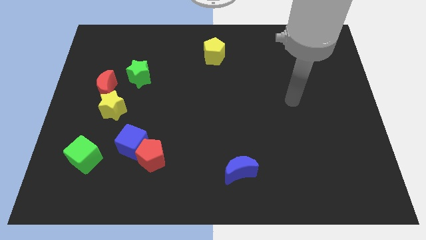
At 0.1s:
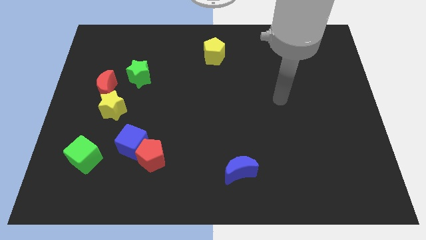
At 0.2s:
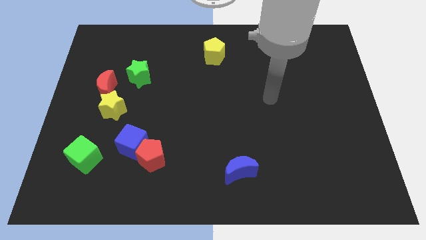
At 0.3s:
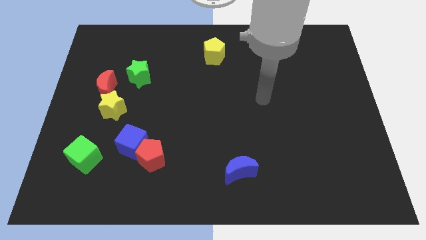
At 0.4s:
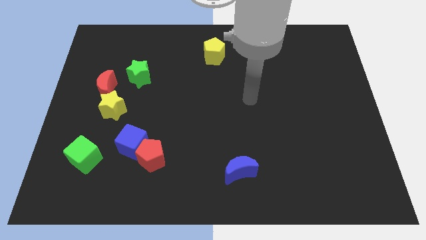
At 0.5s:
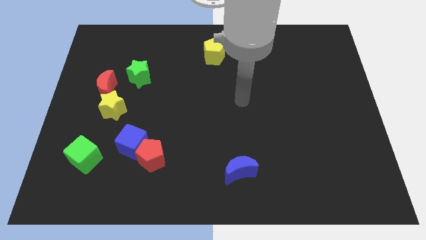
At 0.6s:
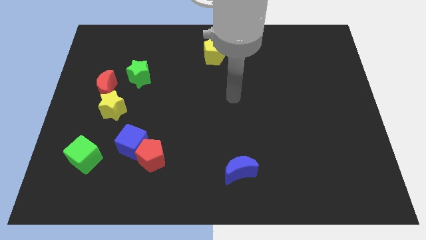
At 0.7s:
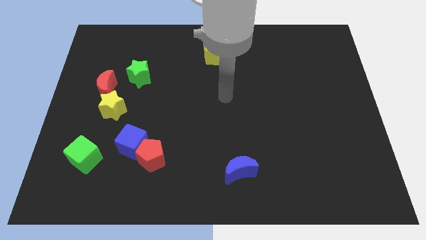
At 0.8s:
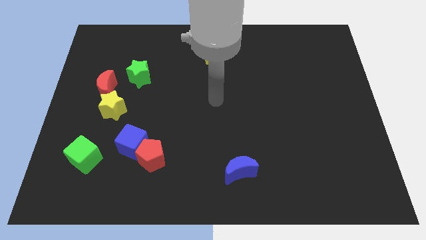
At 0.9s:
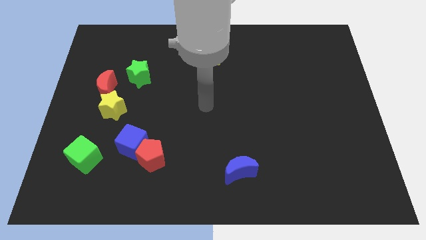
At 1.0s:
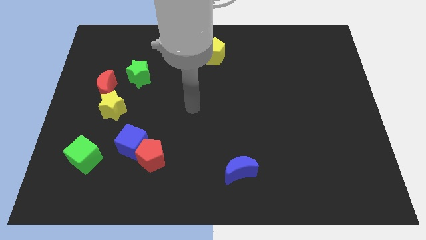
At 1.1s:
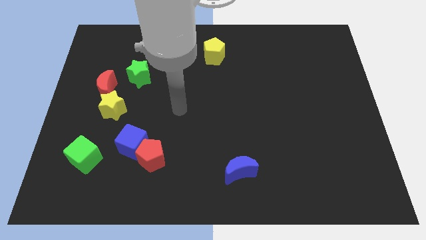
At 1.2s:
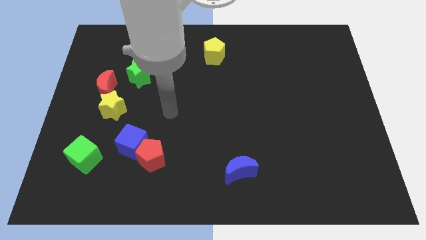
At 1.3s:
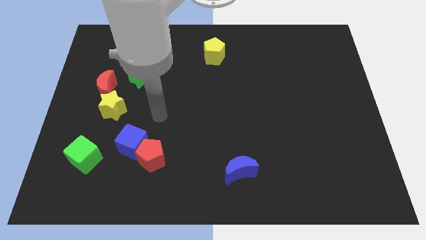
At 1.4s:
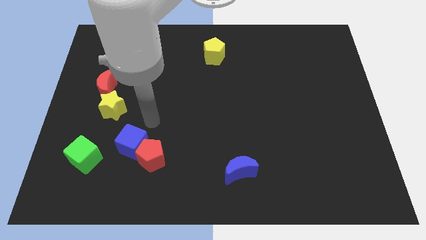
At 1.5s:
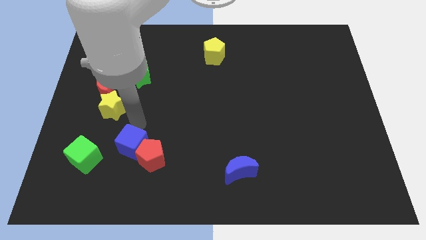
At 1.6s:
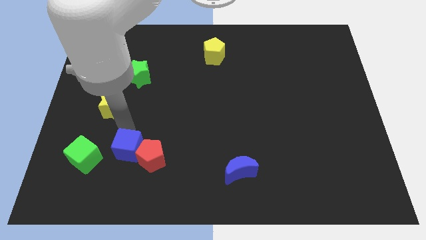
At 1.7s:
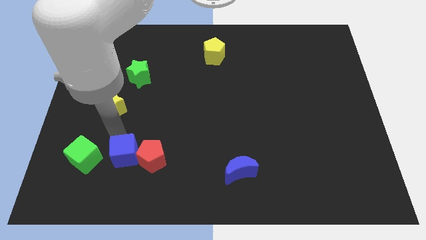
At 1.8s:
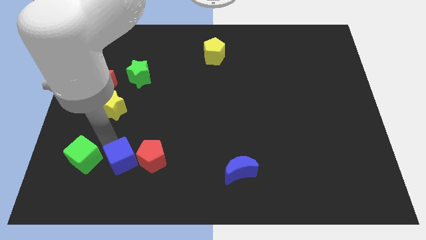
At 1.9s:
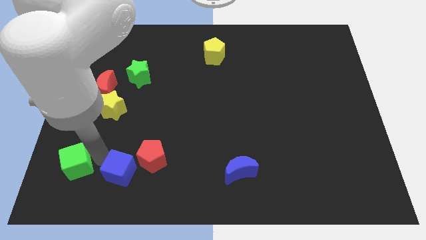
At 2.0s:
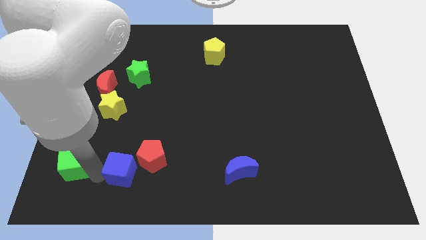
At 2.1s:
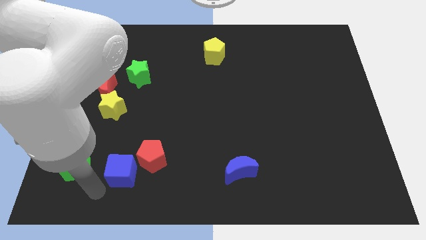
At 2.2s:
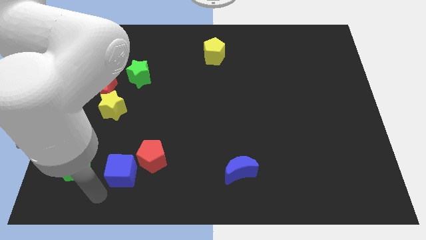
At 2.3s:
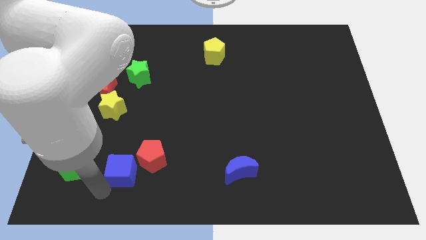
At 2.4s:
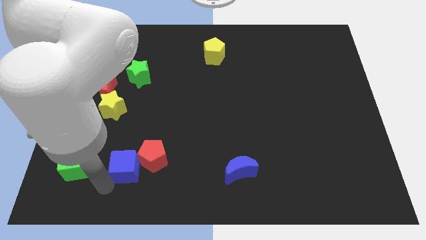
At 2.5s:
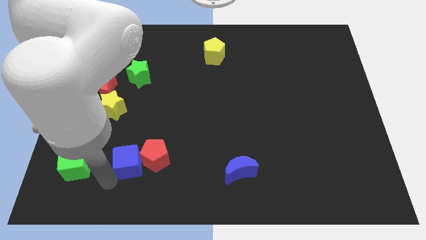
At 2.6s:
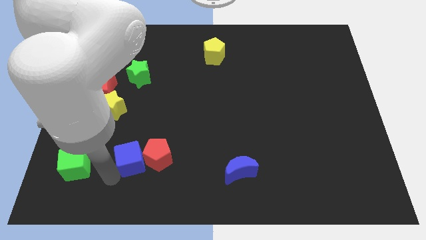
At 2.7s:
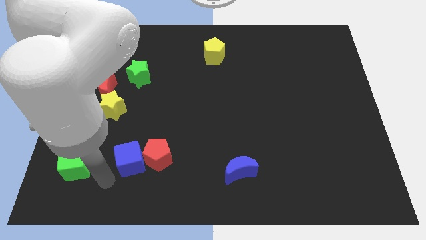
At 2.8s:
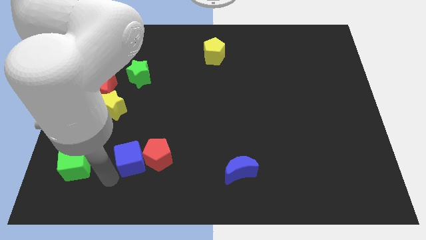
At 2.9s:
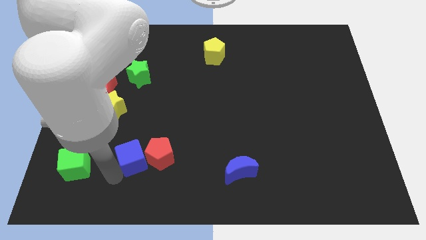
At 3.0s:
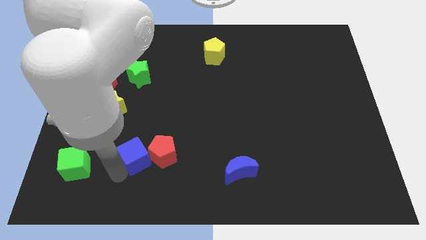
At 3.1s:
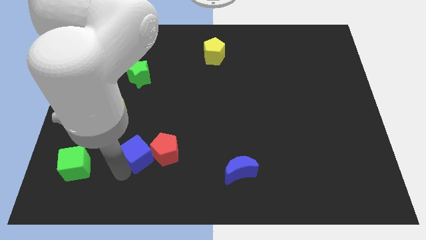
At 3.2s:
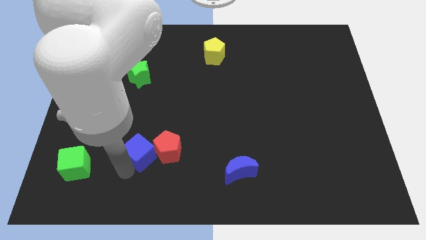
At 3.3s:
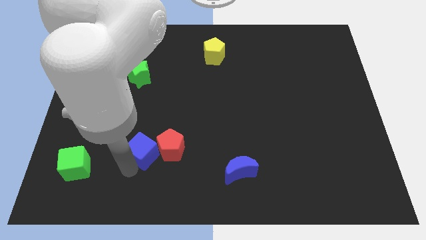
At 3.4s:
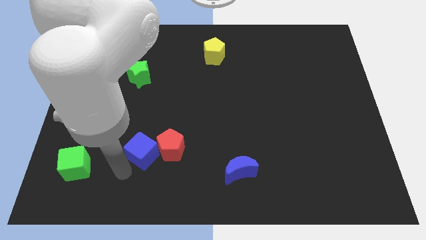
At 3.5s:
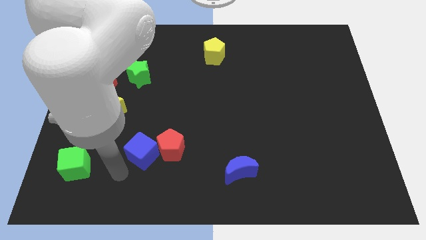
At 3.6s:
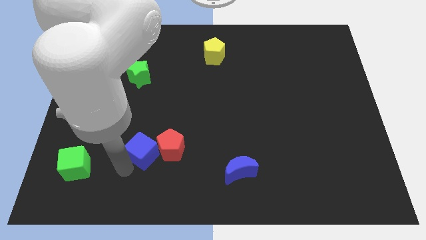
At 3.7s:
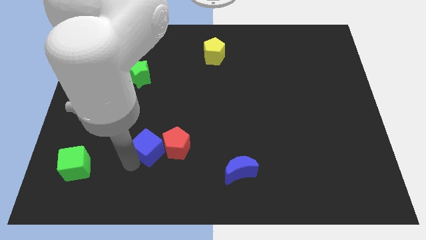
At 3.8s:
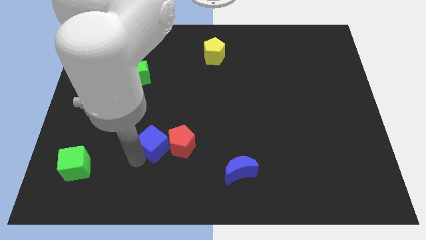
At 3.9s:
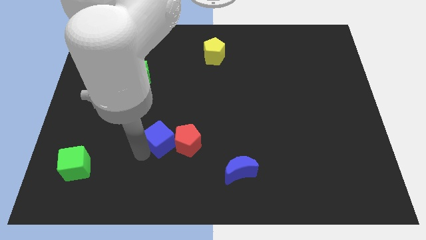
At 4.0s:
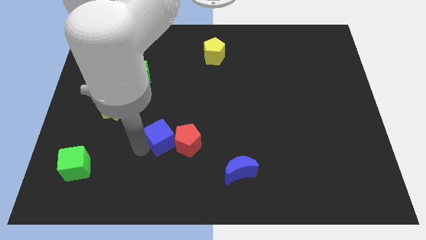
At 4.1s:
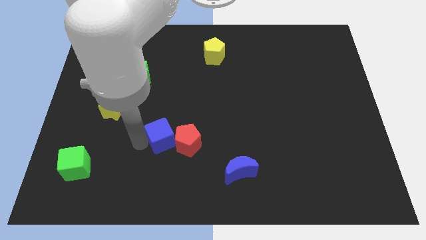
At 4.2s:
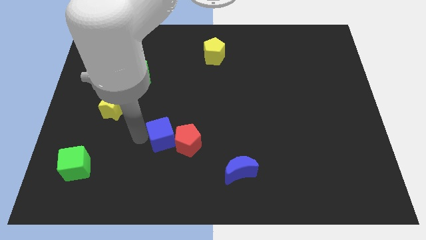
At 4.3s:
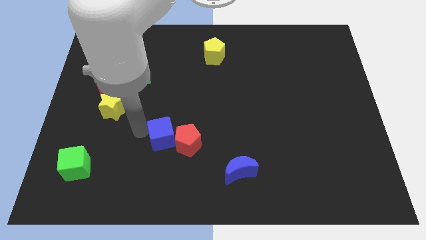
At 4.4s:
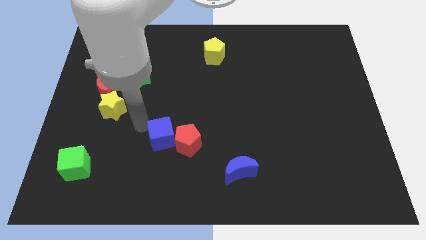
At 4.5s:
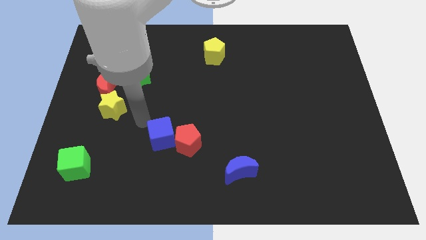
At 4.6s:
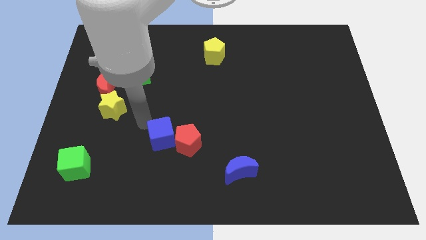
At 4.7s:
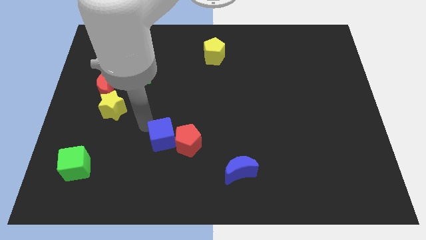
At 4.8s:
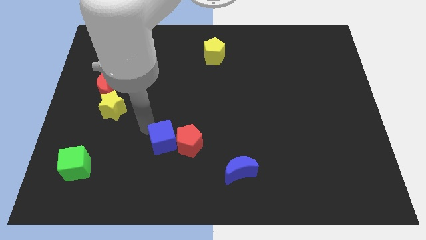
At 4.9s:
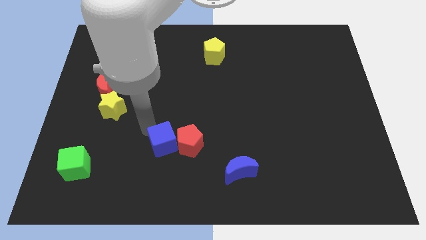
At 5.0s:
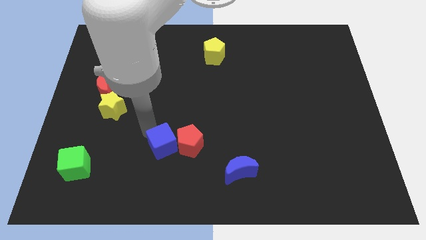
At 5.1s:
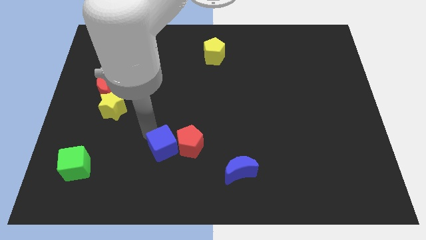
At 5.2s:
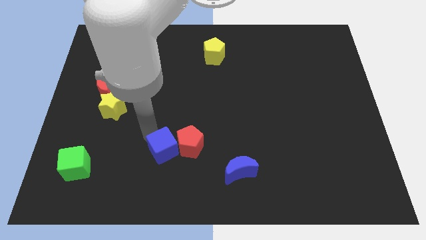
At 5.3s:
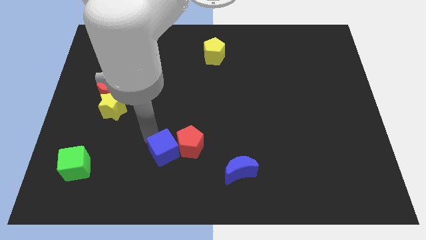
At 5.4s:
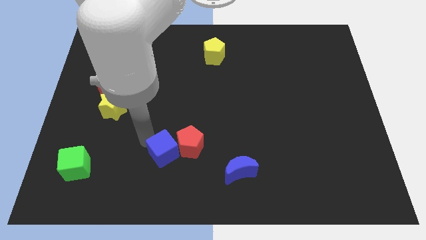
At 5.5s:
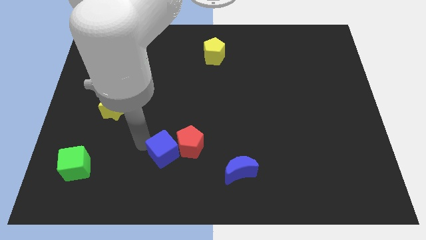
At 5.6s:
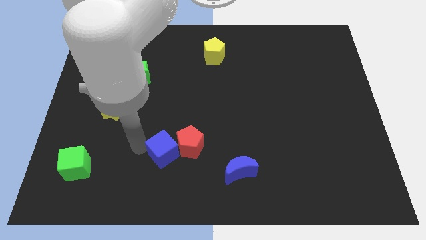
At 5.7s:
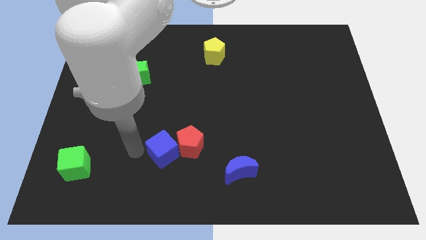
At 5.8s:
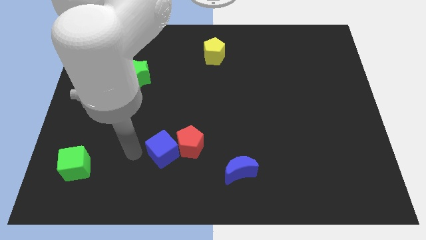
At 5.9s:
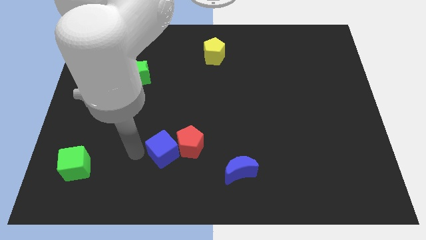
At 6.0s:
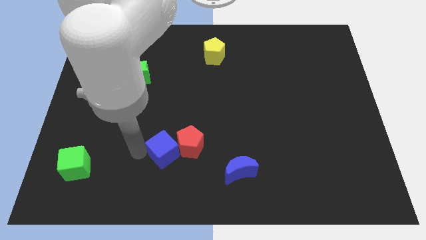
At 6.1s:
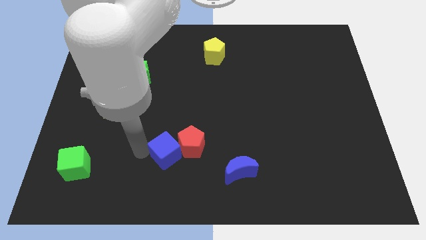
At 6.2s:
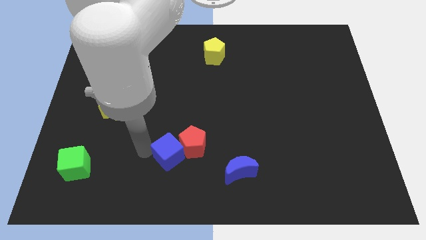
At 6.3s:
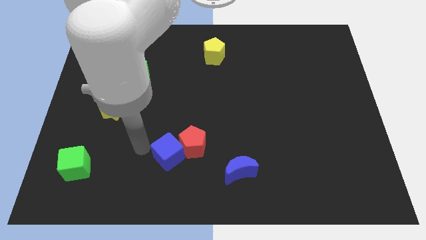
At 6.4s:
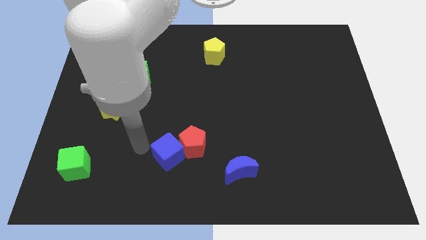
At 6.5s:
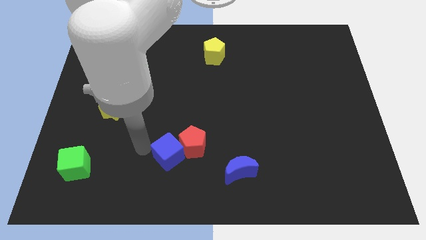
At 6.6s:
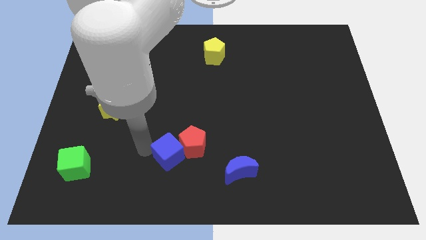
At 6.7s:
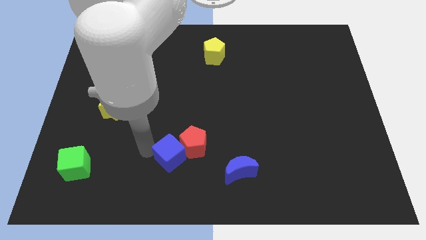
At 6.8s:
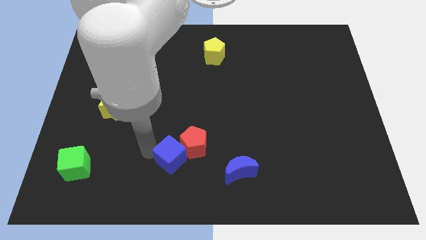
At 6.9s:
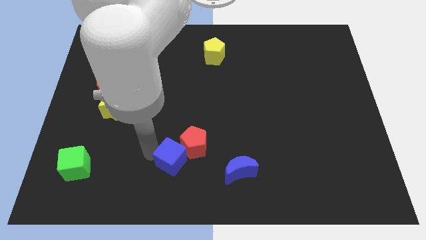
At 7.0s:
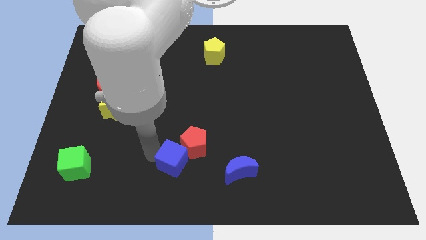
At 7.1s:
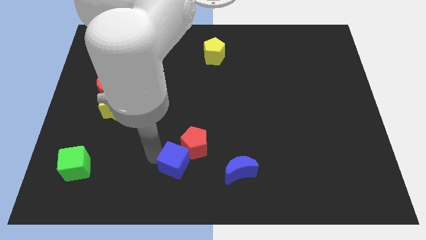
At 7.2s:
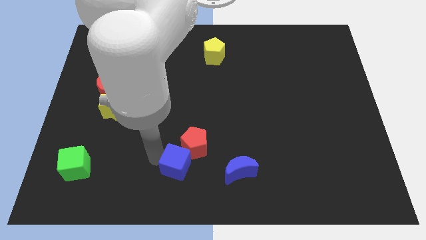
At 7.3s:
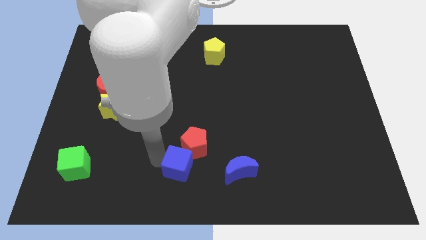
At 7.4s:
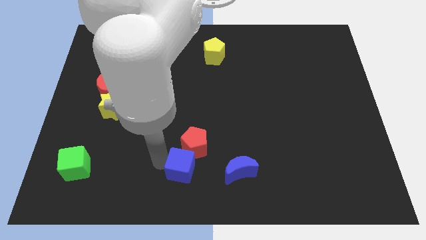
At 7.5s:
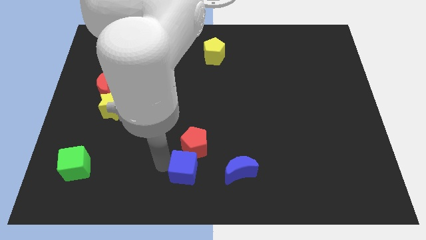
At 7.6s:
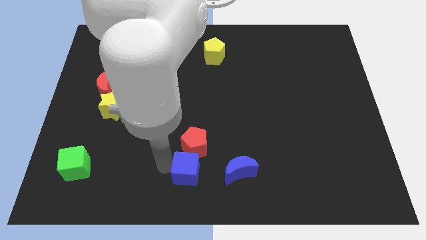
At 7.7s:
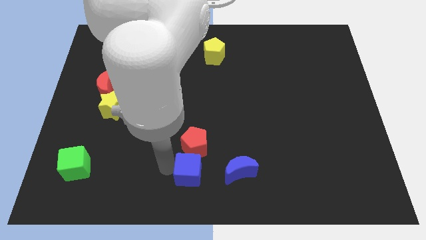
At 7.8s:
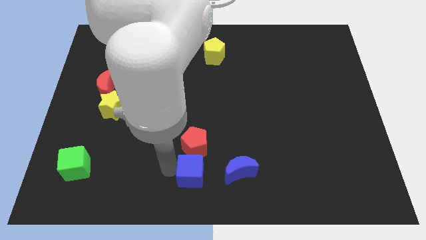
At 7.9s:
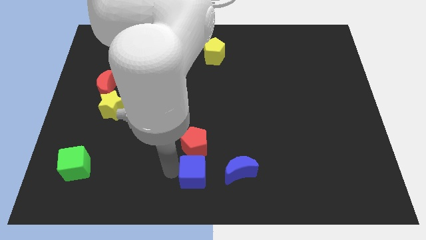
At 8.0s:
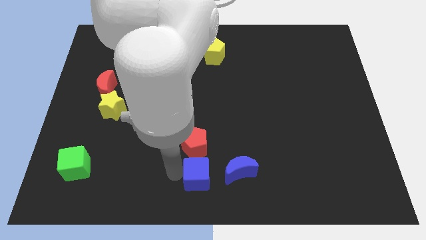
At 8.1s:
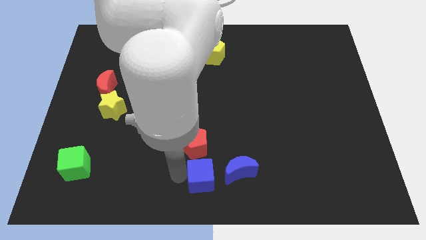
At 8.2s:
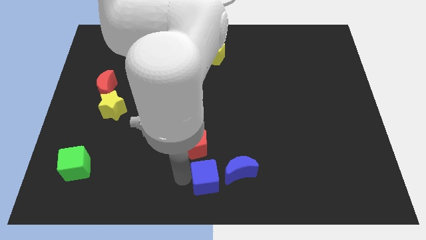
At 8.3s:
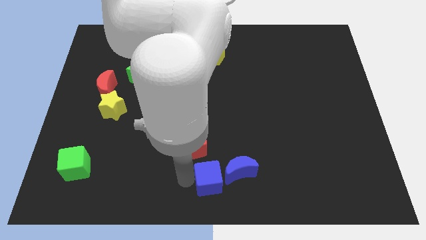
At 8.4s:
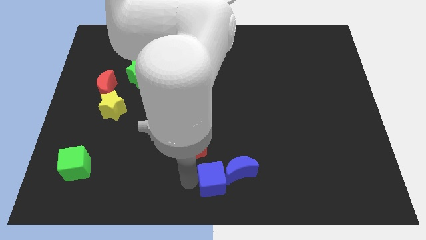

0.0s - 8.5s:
push the blue cube close to the blue moon
